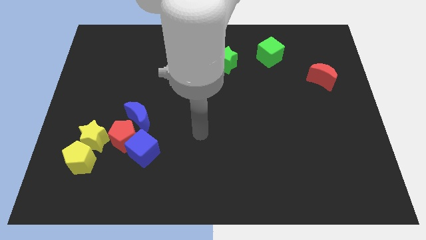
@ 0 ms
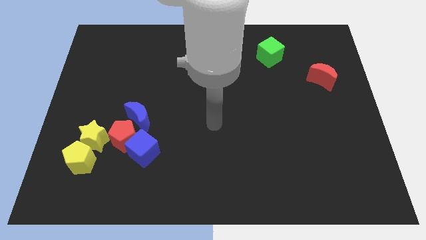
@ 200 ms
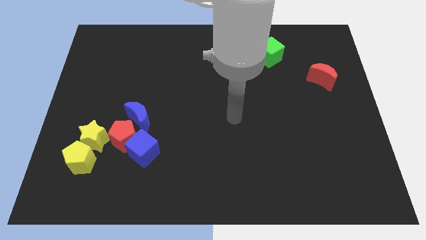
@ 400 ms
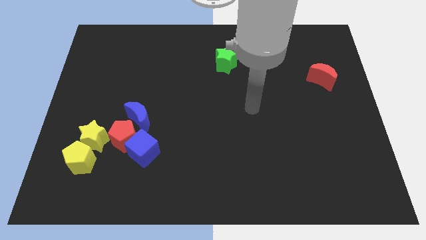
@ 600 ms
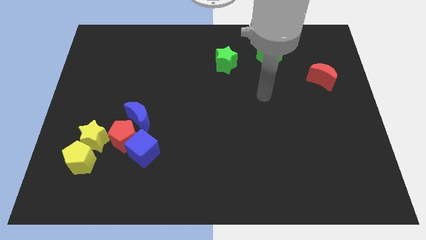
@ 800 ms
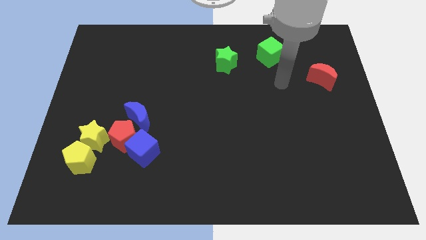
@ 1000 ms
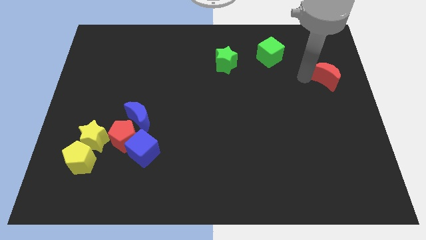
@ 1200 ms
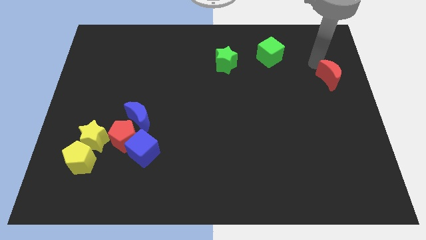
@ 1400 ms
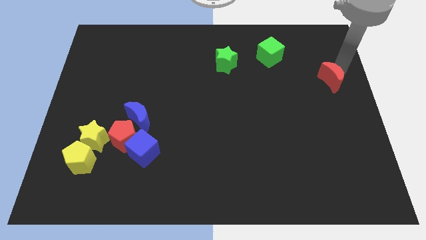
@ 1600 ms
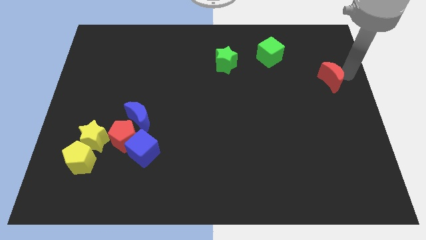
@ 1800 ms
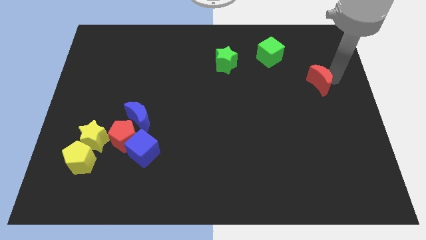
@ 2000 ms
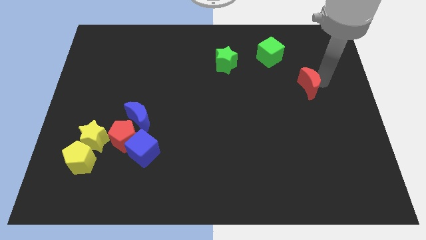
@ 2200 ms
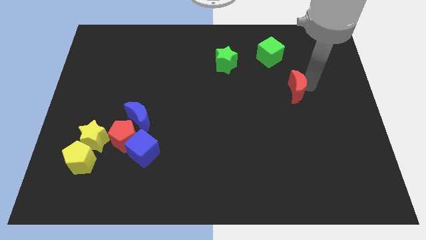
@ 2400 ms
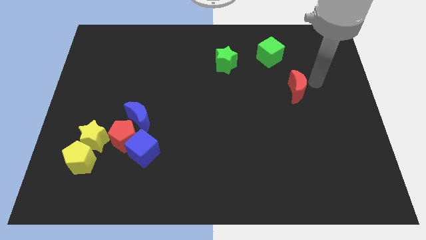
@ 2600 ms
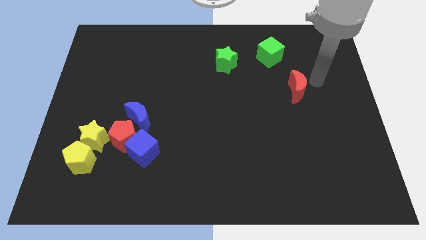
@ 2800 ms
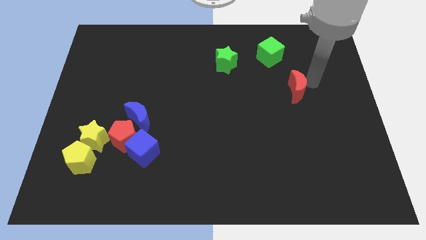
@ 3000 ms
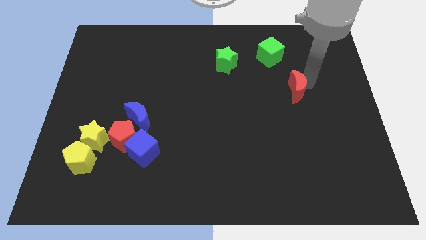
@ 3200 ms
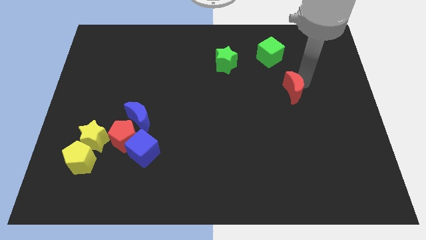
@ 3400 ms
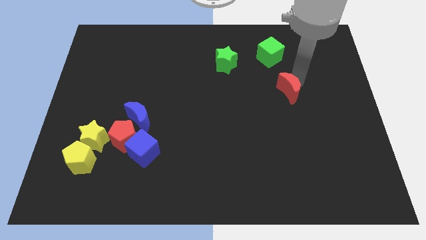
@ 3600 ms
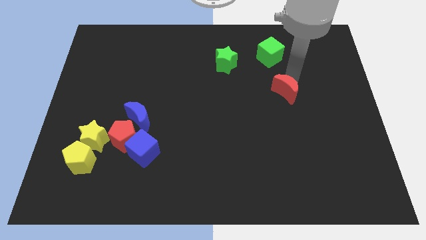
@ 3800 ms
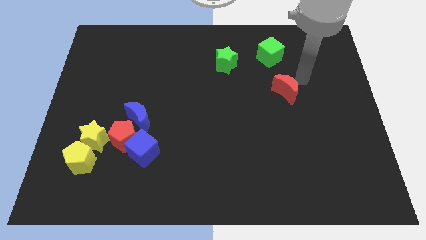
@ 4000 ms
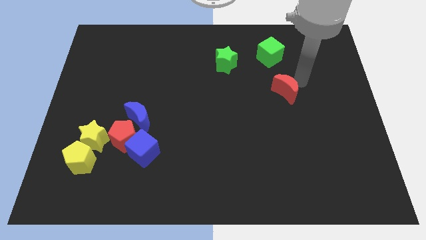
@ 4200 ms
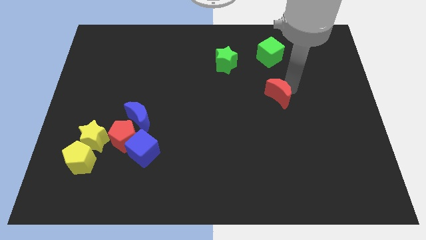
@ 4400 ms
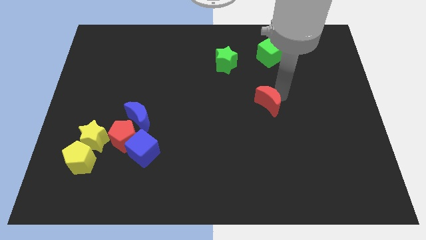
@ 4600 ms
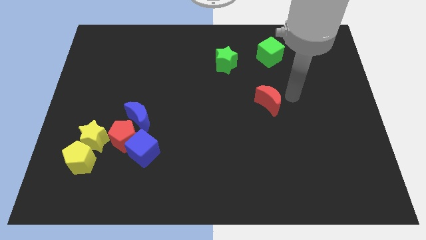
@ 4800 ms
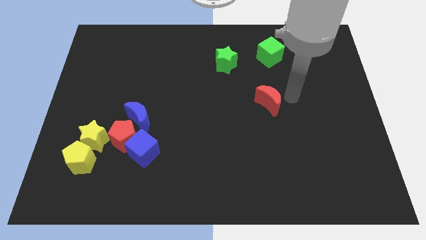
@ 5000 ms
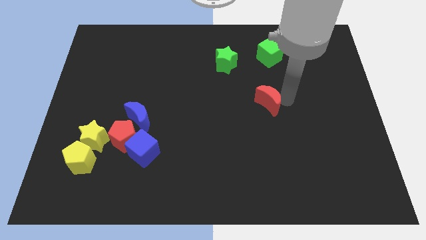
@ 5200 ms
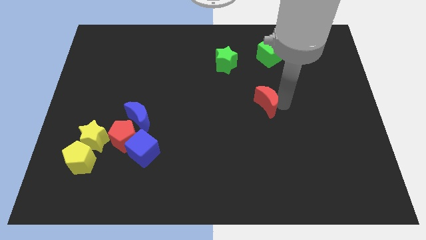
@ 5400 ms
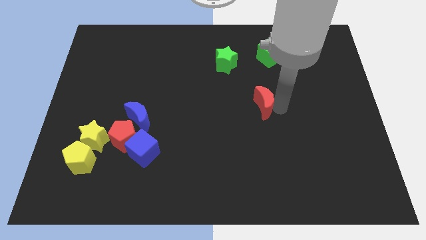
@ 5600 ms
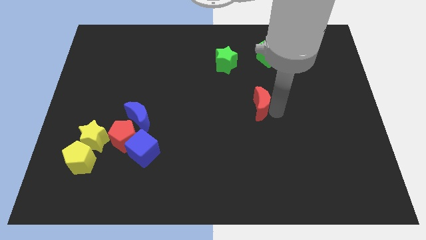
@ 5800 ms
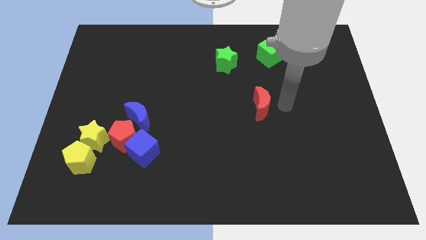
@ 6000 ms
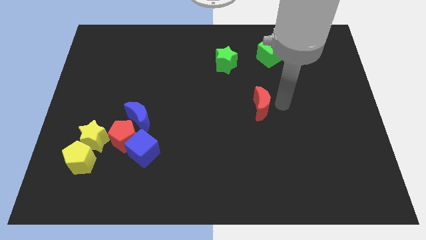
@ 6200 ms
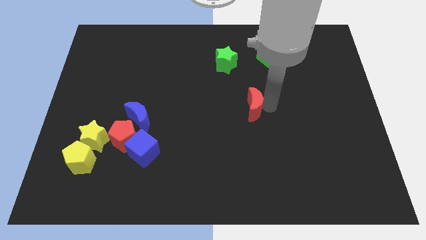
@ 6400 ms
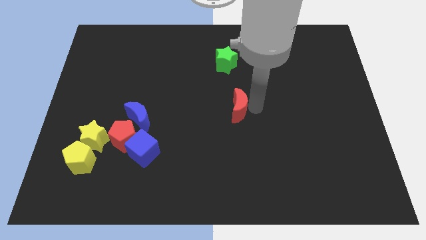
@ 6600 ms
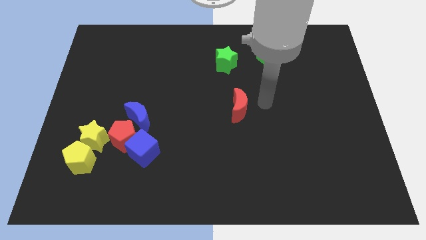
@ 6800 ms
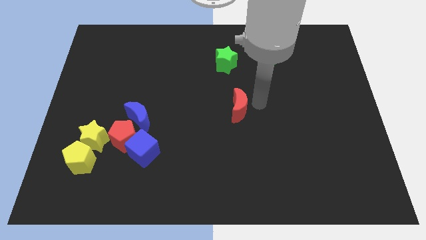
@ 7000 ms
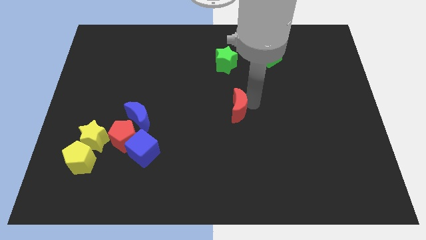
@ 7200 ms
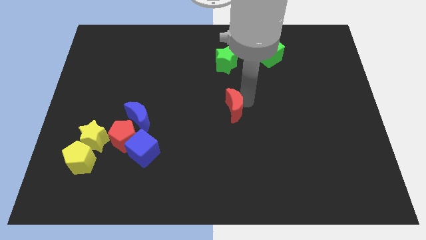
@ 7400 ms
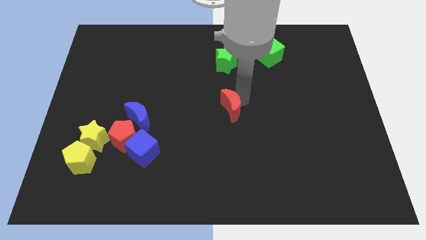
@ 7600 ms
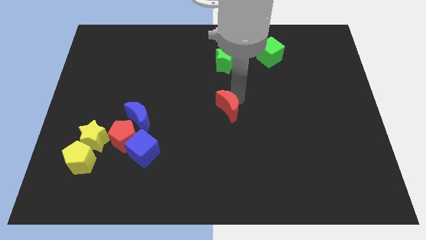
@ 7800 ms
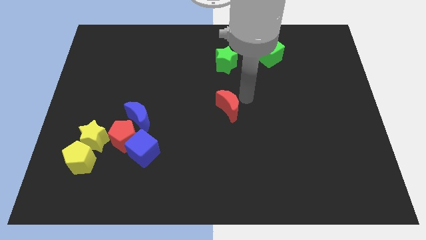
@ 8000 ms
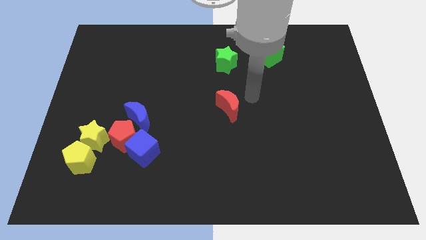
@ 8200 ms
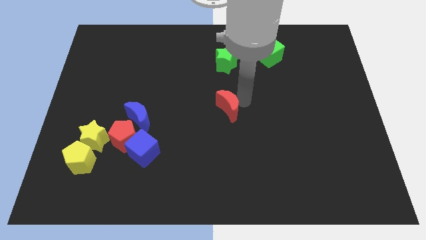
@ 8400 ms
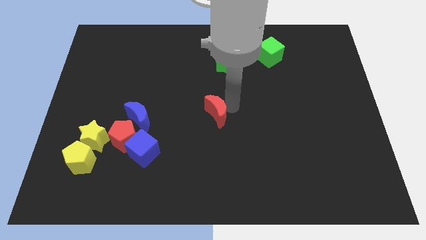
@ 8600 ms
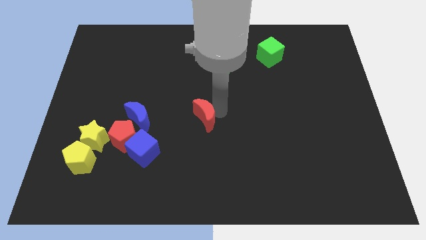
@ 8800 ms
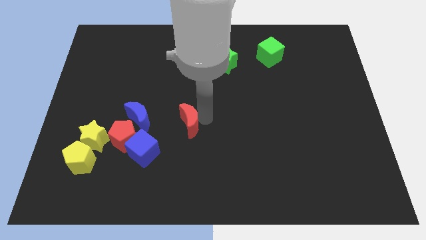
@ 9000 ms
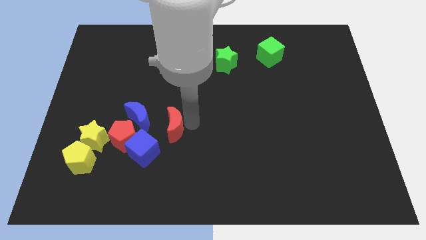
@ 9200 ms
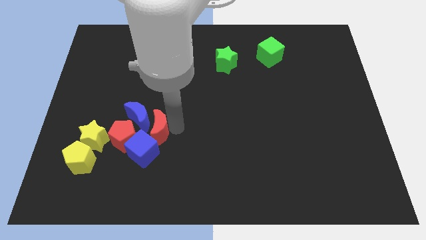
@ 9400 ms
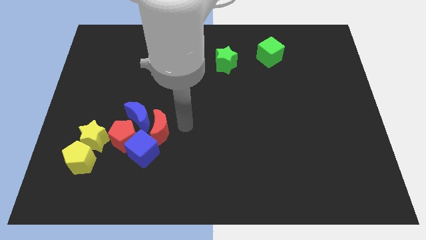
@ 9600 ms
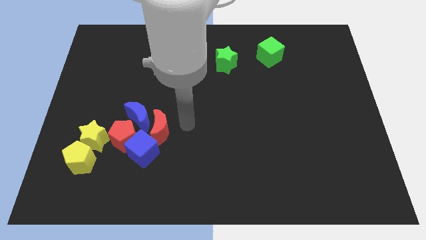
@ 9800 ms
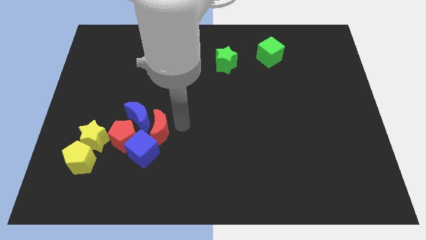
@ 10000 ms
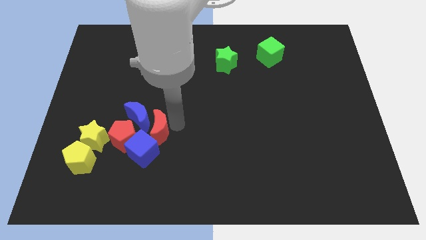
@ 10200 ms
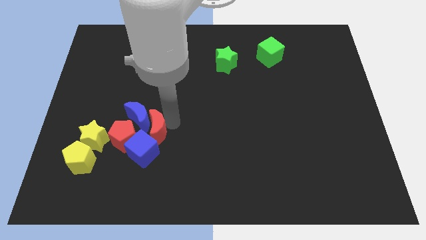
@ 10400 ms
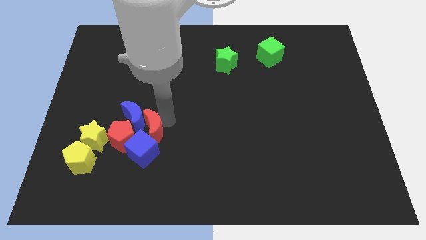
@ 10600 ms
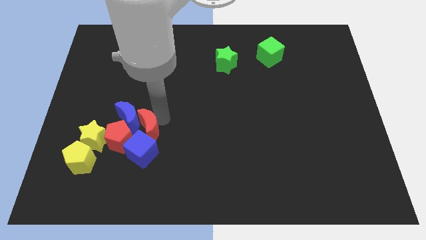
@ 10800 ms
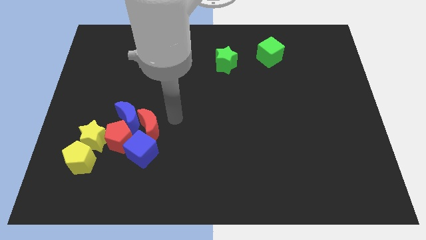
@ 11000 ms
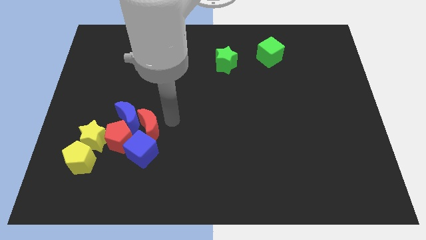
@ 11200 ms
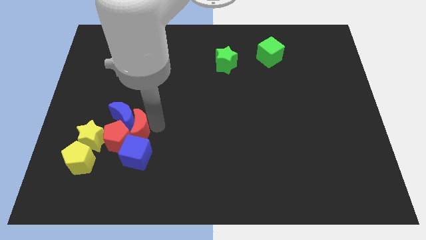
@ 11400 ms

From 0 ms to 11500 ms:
move the red moon next to the red pentagon

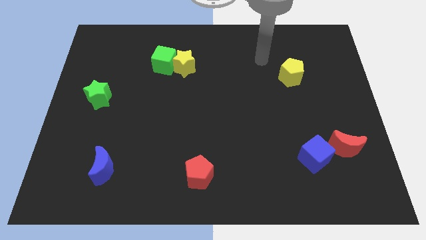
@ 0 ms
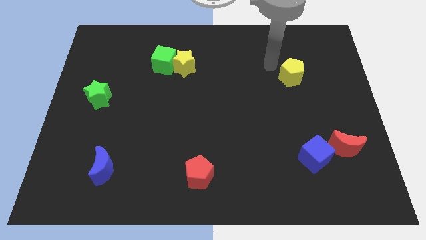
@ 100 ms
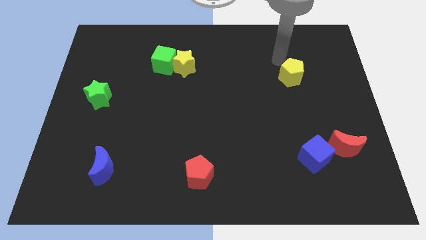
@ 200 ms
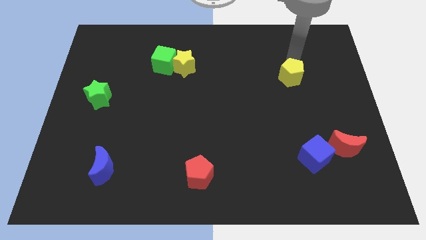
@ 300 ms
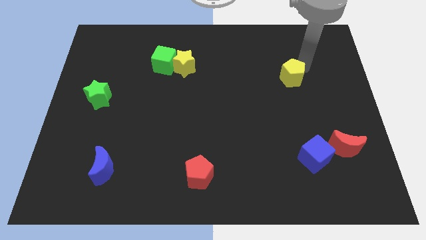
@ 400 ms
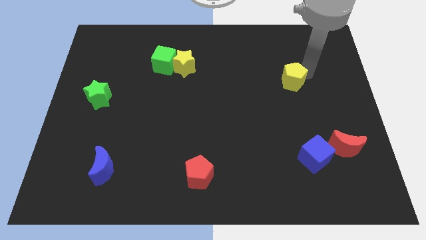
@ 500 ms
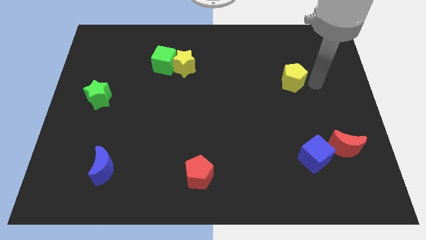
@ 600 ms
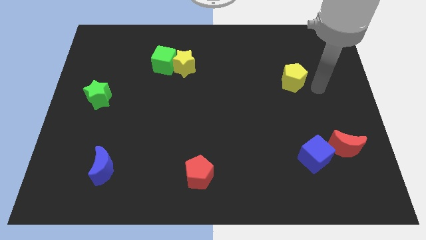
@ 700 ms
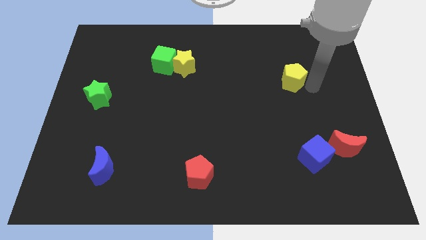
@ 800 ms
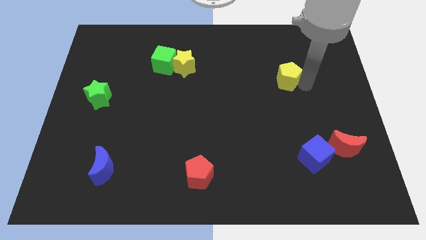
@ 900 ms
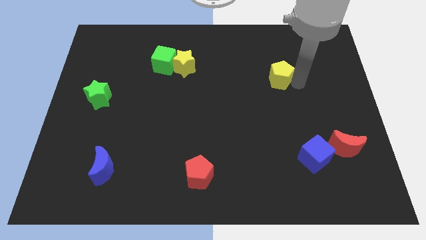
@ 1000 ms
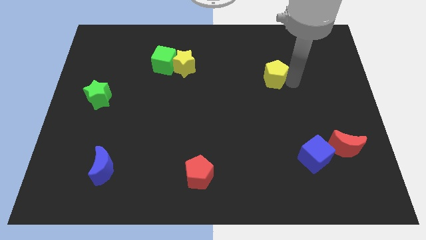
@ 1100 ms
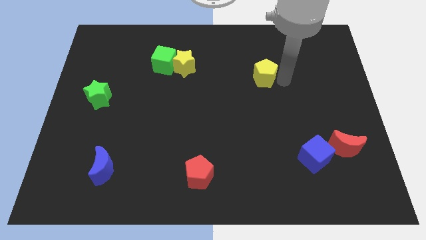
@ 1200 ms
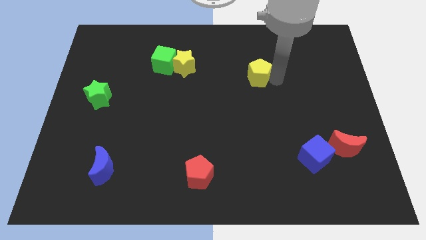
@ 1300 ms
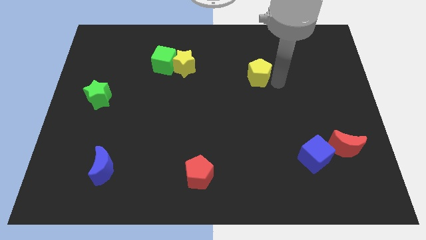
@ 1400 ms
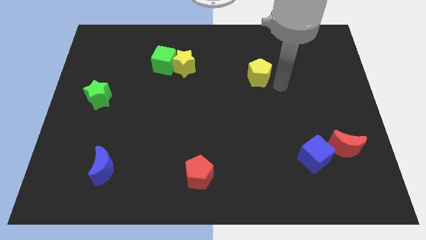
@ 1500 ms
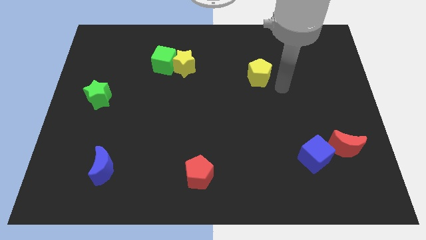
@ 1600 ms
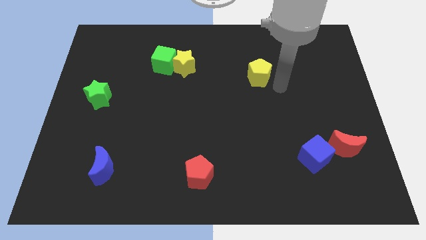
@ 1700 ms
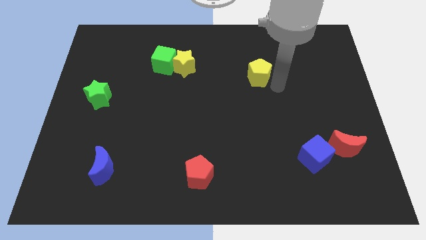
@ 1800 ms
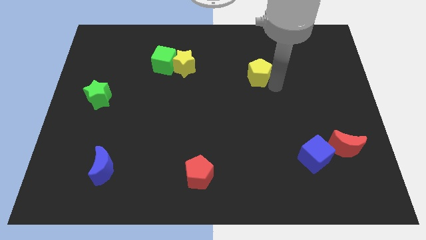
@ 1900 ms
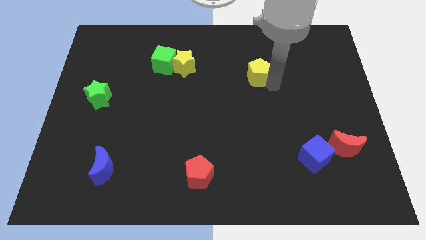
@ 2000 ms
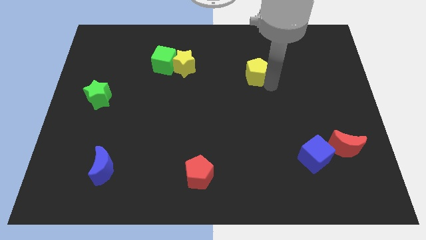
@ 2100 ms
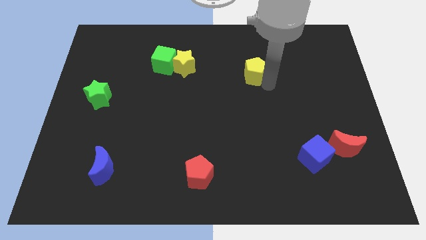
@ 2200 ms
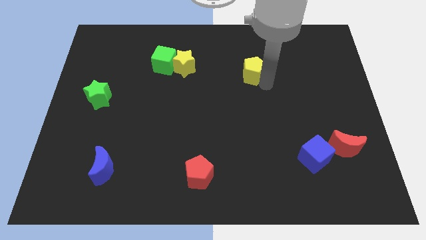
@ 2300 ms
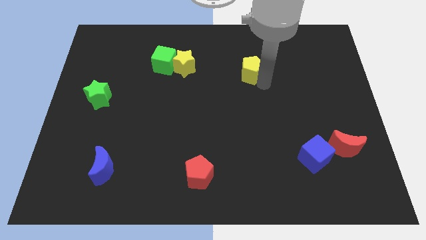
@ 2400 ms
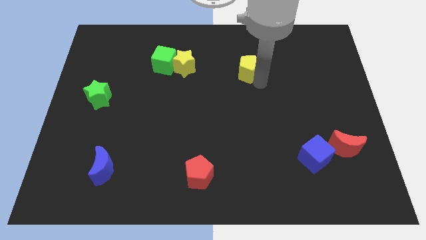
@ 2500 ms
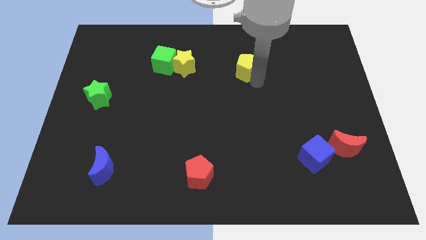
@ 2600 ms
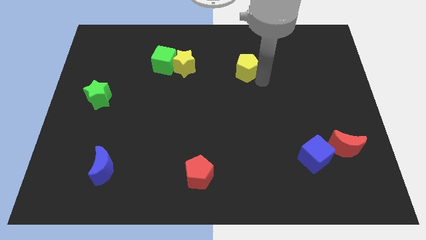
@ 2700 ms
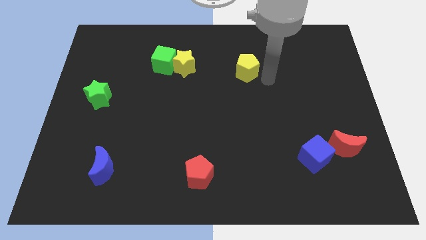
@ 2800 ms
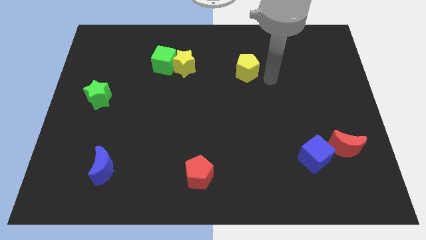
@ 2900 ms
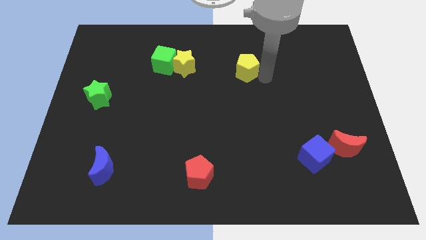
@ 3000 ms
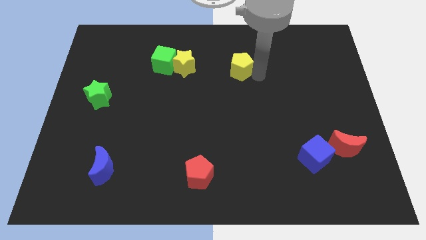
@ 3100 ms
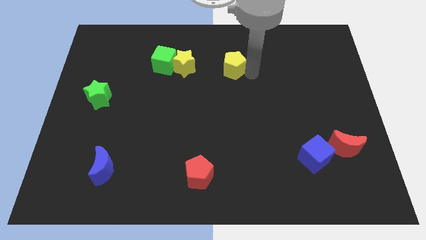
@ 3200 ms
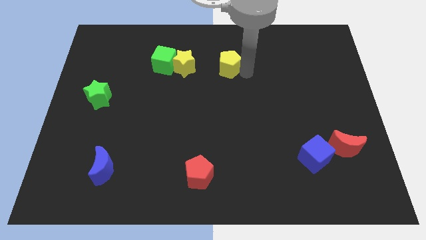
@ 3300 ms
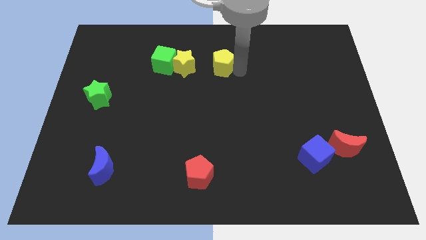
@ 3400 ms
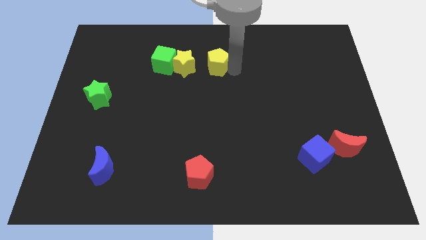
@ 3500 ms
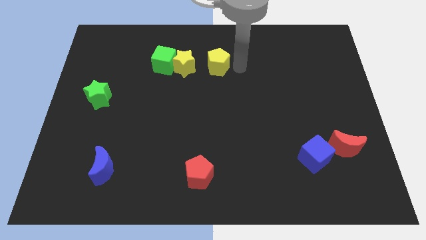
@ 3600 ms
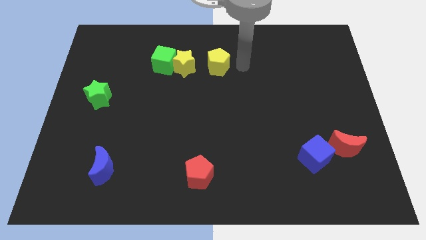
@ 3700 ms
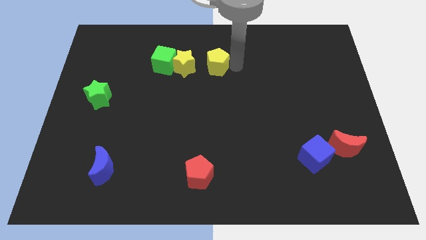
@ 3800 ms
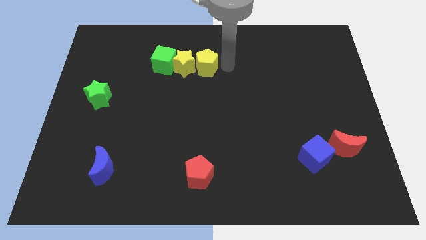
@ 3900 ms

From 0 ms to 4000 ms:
push the yellow pentagon to the yellow star
